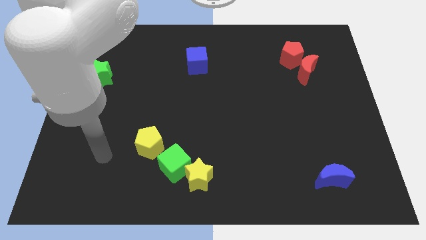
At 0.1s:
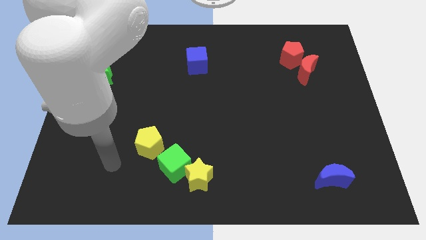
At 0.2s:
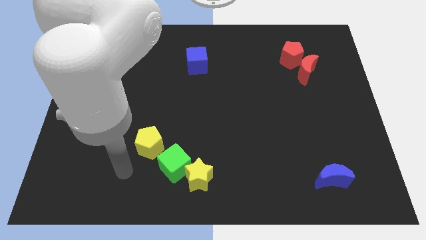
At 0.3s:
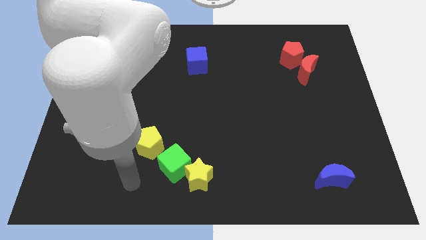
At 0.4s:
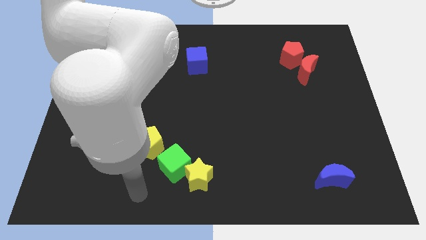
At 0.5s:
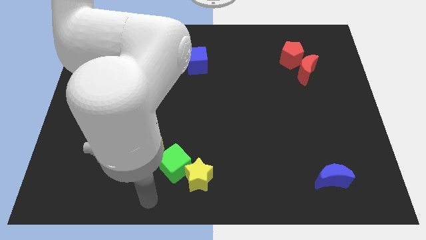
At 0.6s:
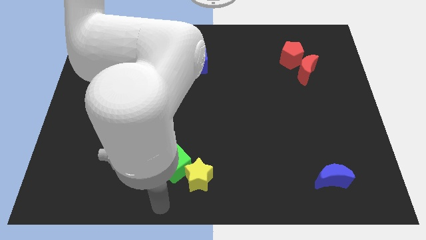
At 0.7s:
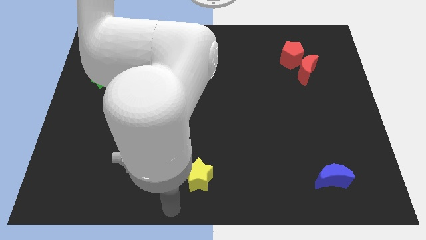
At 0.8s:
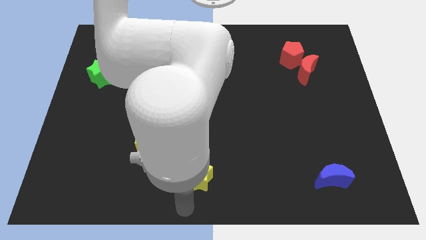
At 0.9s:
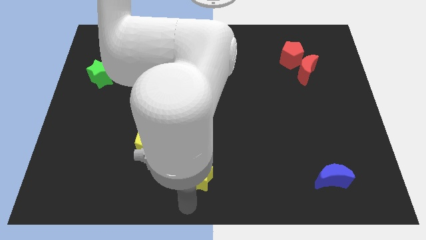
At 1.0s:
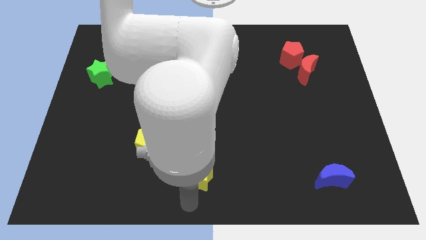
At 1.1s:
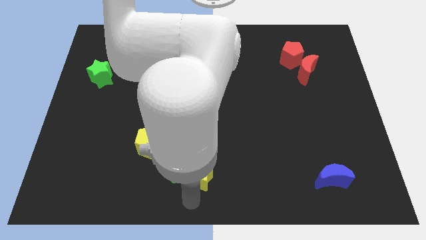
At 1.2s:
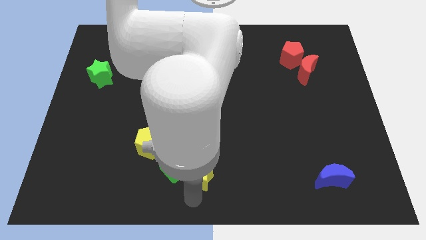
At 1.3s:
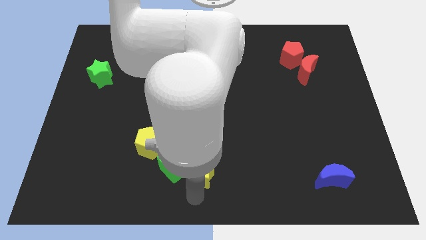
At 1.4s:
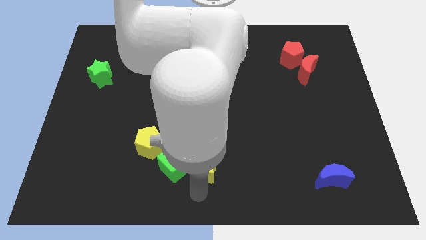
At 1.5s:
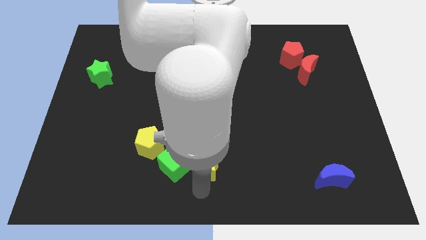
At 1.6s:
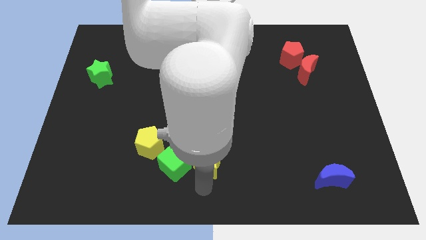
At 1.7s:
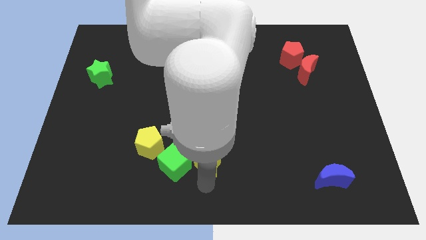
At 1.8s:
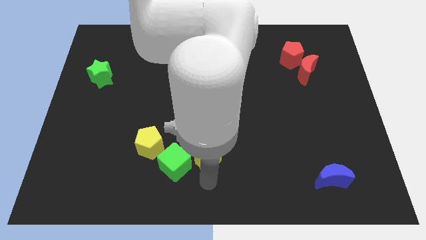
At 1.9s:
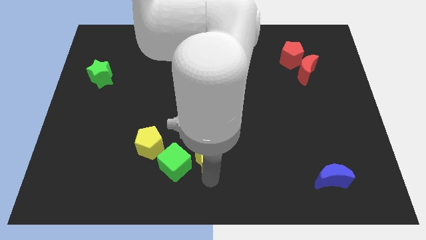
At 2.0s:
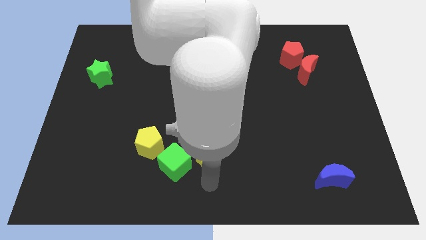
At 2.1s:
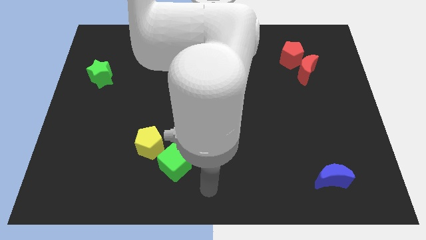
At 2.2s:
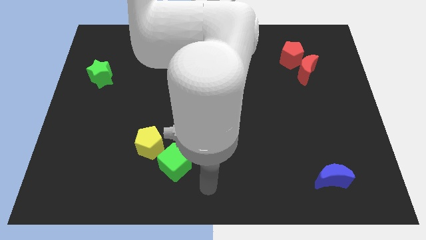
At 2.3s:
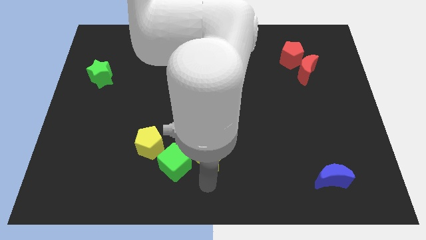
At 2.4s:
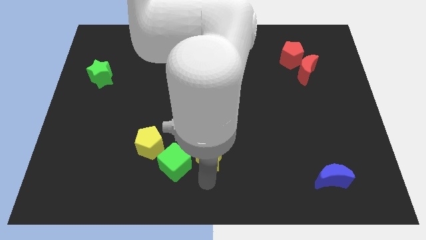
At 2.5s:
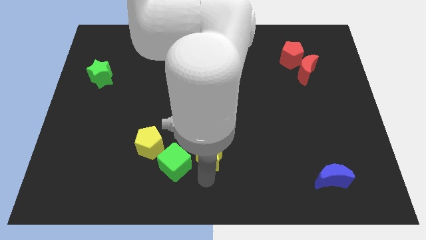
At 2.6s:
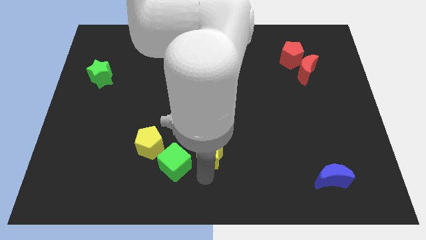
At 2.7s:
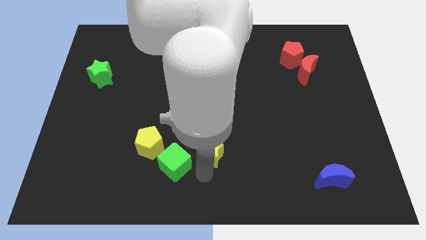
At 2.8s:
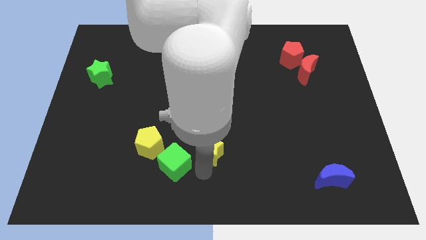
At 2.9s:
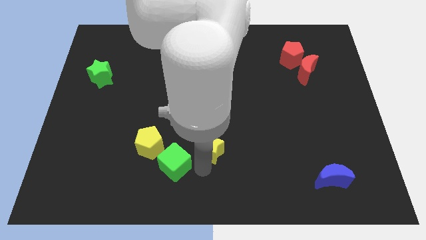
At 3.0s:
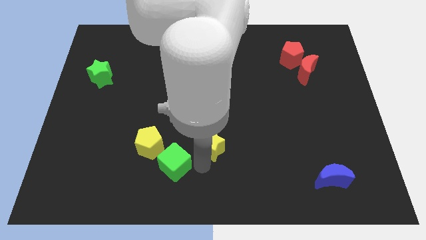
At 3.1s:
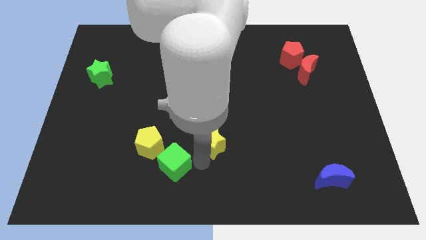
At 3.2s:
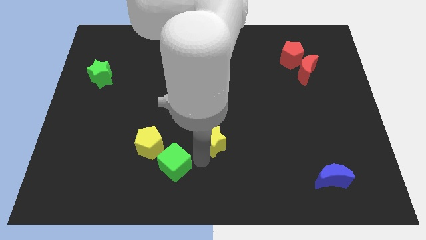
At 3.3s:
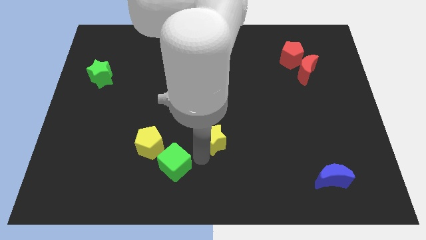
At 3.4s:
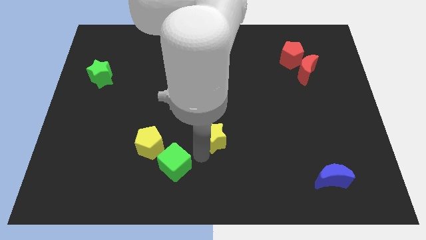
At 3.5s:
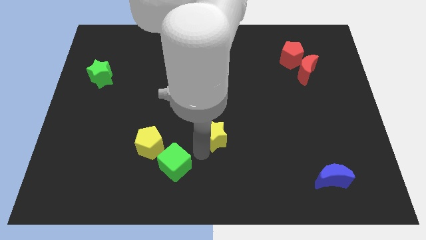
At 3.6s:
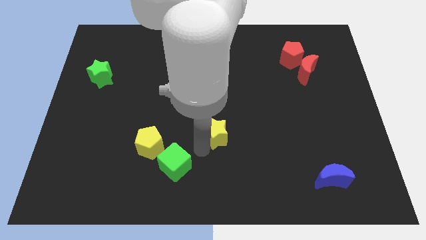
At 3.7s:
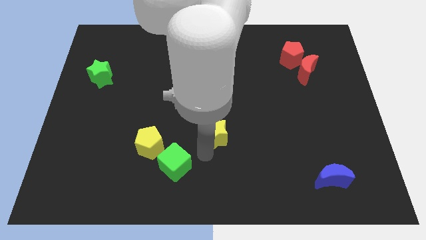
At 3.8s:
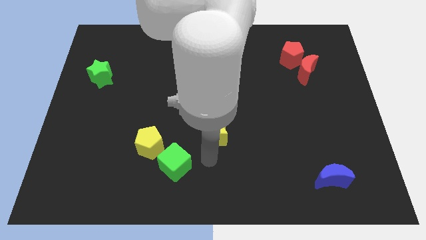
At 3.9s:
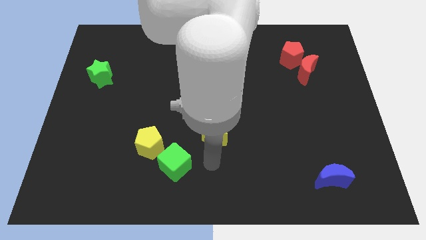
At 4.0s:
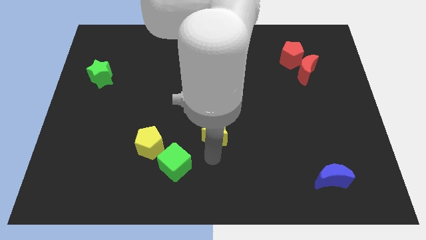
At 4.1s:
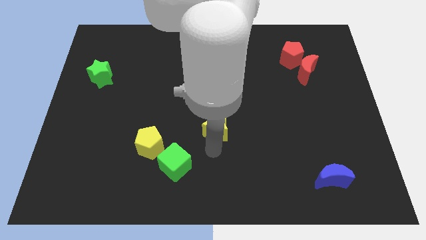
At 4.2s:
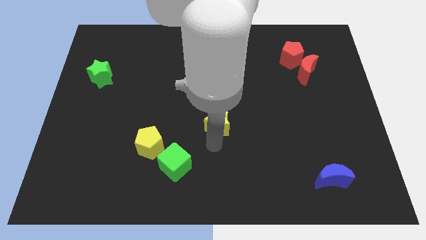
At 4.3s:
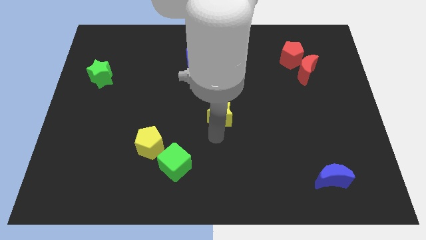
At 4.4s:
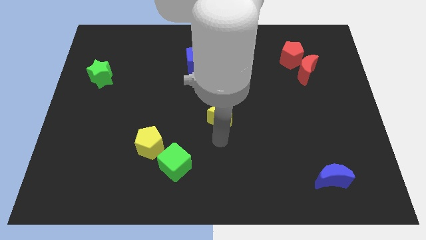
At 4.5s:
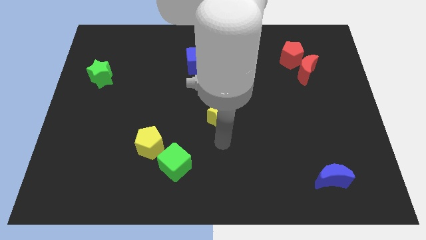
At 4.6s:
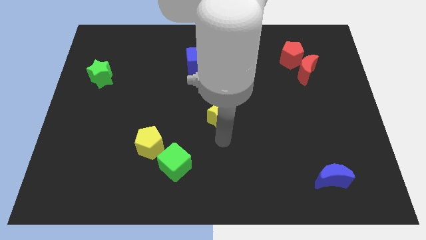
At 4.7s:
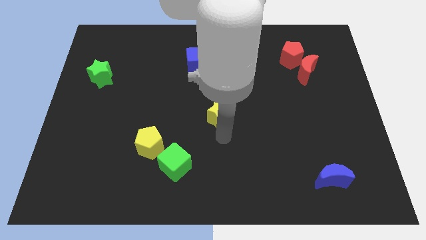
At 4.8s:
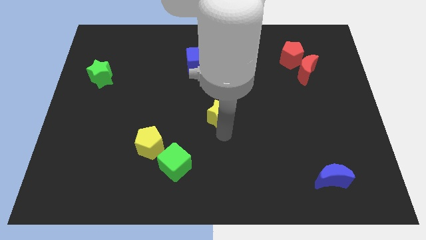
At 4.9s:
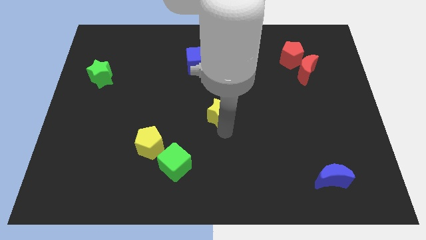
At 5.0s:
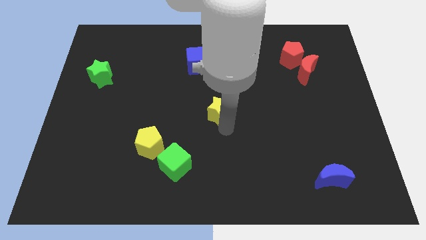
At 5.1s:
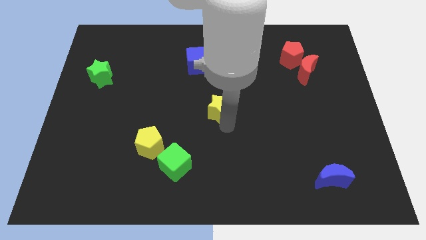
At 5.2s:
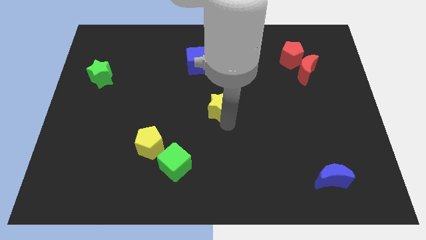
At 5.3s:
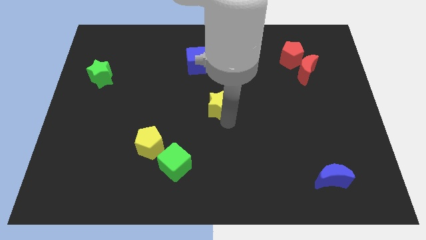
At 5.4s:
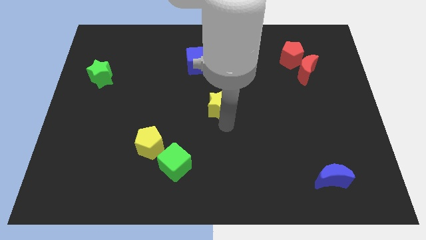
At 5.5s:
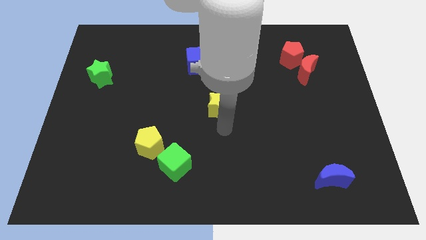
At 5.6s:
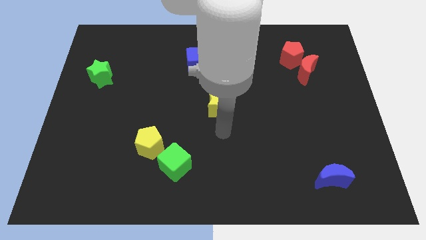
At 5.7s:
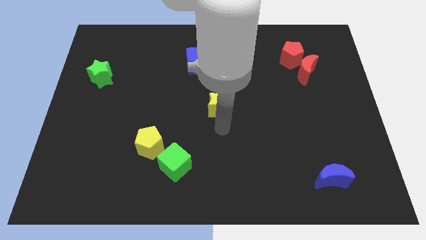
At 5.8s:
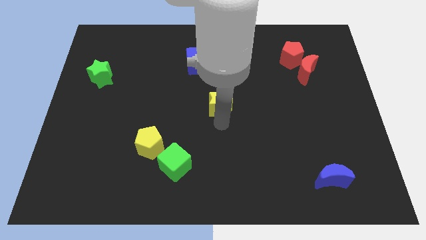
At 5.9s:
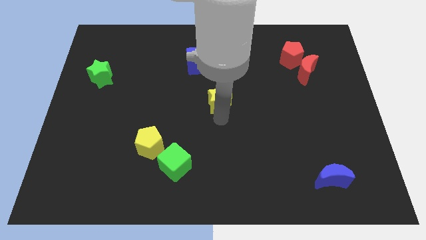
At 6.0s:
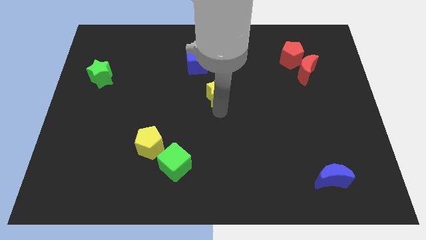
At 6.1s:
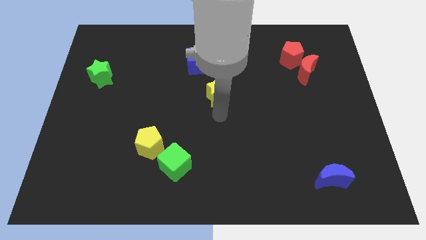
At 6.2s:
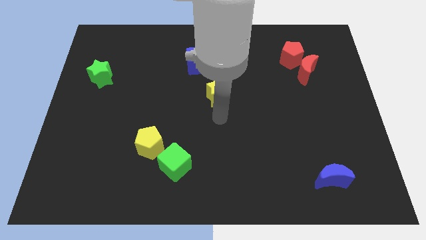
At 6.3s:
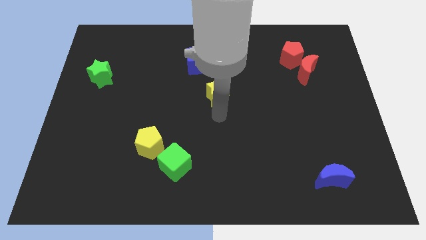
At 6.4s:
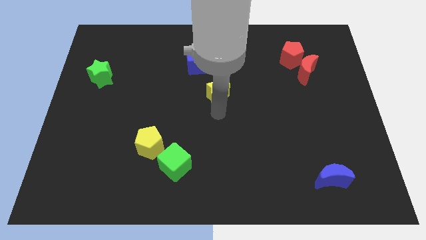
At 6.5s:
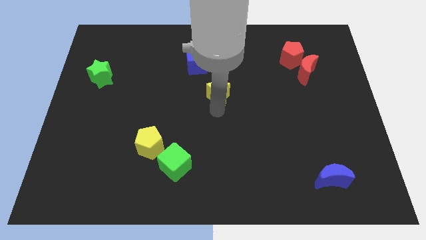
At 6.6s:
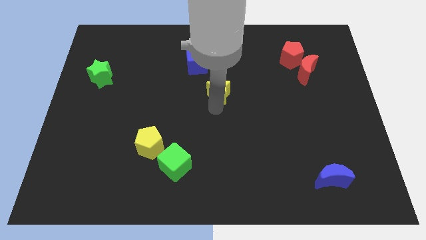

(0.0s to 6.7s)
put the yellow star to the bottom right side of the blue cube
